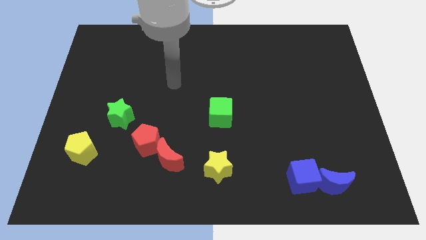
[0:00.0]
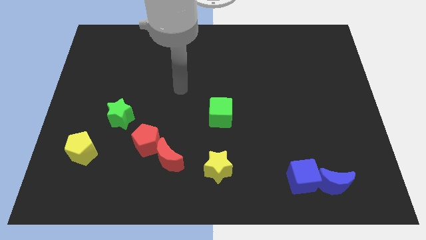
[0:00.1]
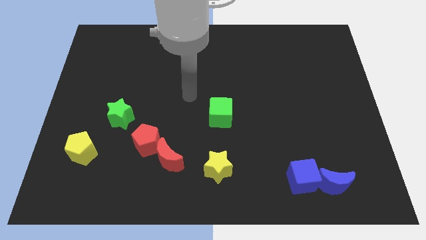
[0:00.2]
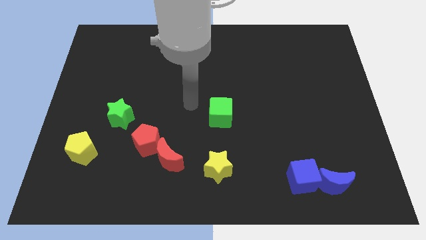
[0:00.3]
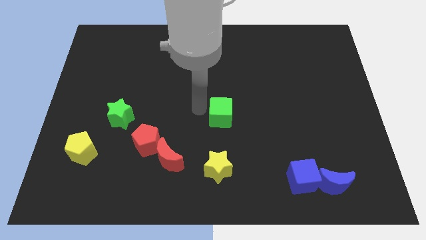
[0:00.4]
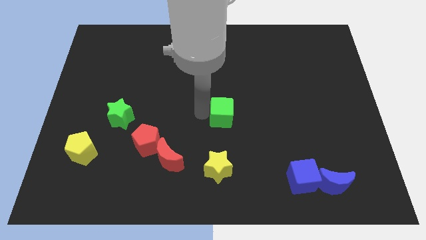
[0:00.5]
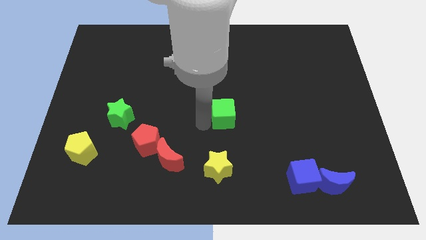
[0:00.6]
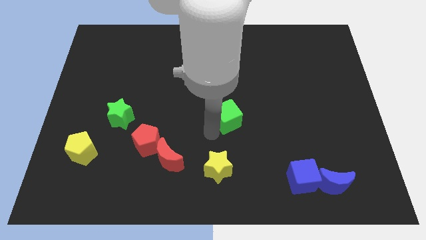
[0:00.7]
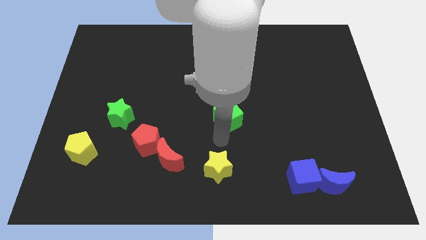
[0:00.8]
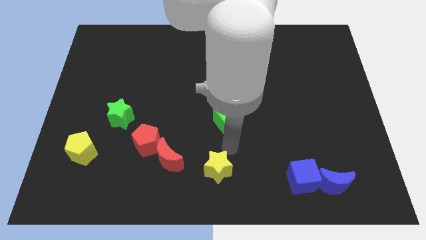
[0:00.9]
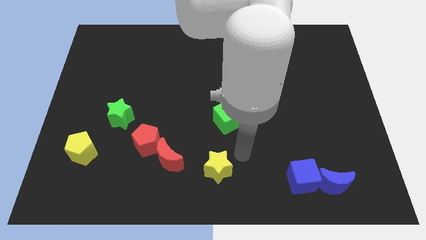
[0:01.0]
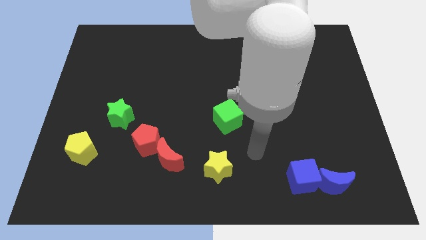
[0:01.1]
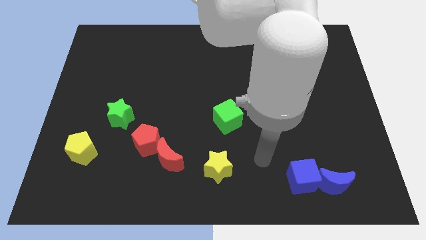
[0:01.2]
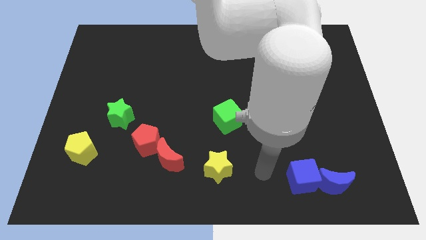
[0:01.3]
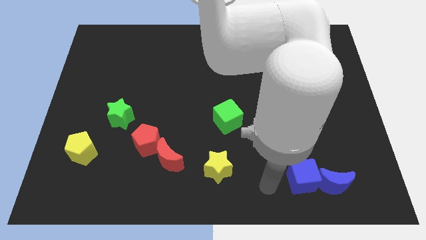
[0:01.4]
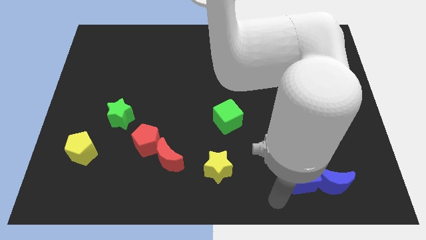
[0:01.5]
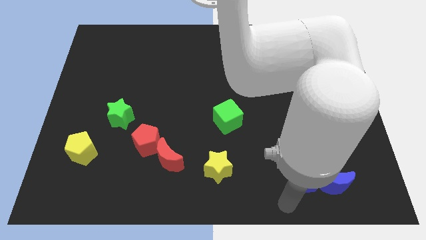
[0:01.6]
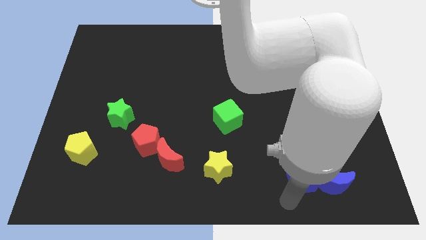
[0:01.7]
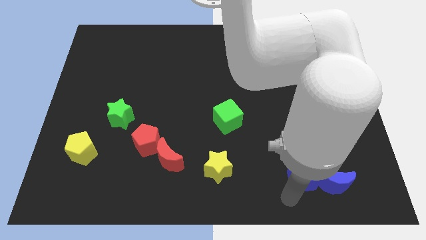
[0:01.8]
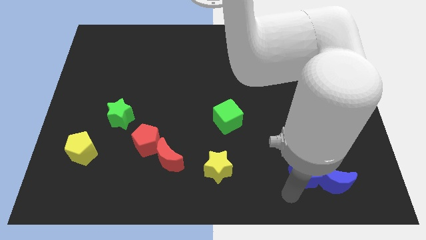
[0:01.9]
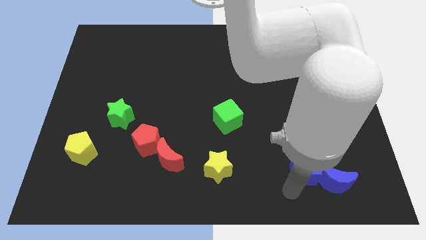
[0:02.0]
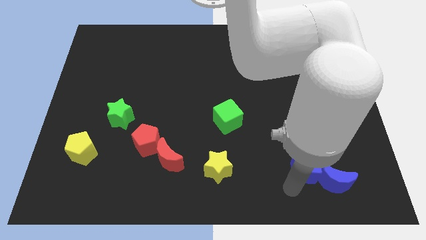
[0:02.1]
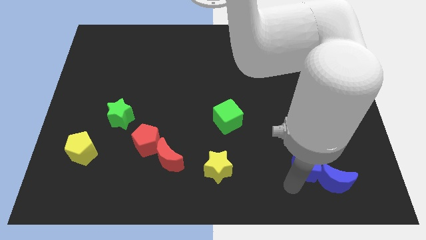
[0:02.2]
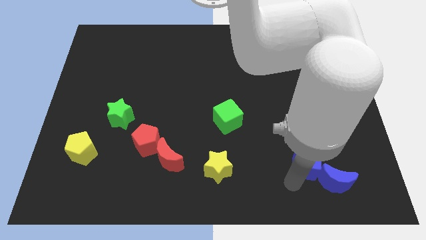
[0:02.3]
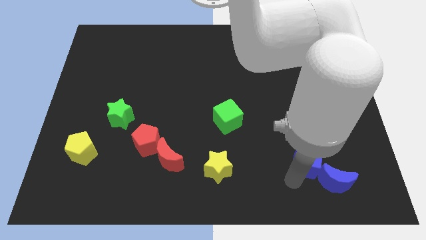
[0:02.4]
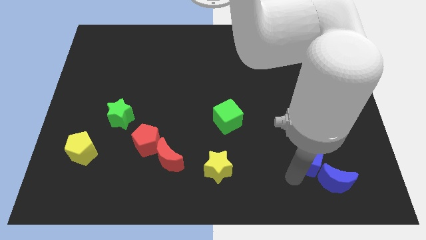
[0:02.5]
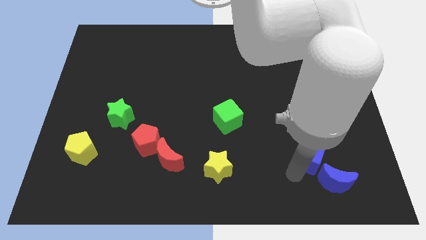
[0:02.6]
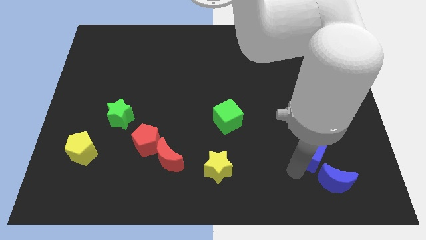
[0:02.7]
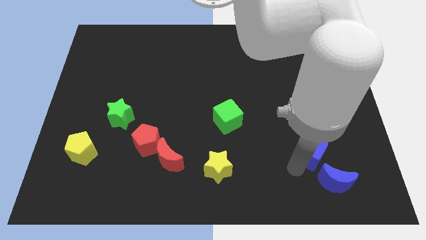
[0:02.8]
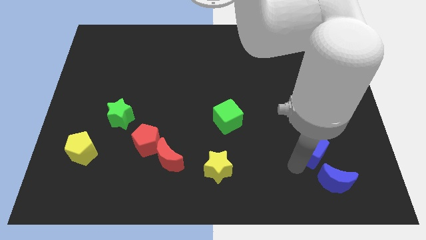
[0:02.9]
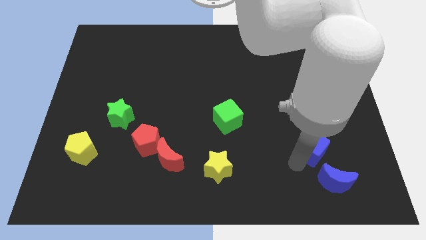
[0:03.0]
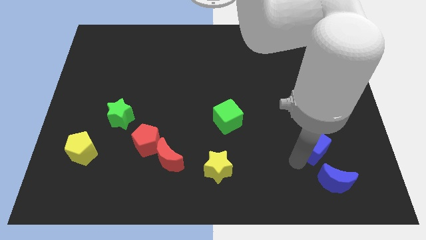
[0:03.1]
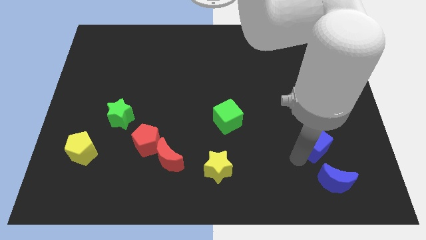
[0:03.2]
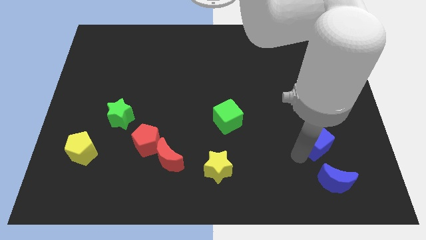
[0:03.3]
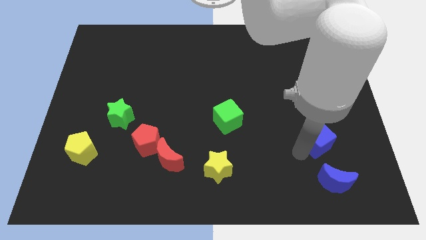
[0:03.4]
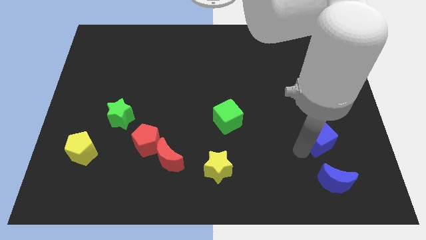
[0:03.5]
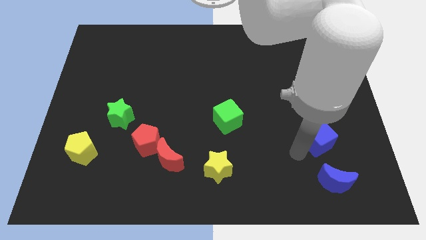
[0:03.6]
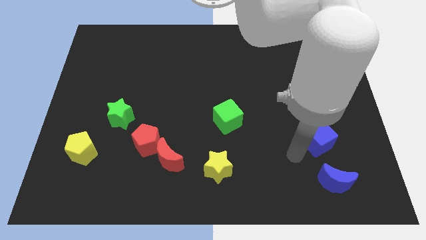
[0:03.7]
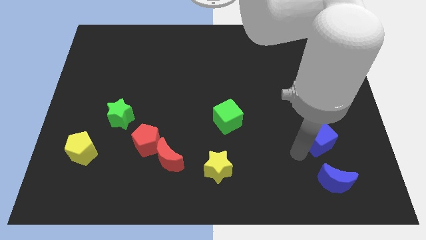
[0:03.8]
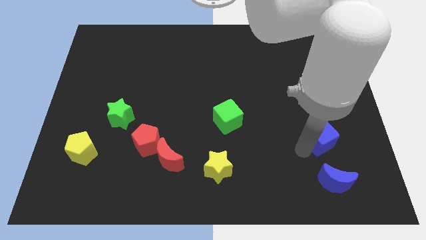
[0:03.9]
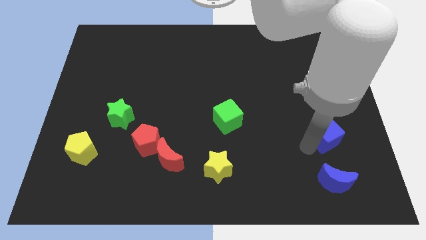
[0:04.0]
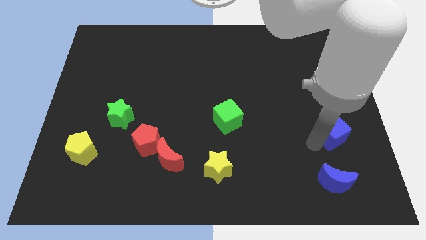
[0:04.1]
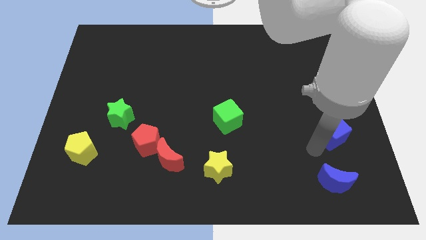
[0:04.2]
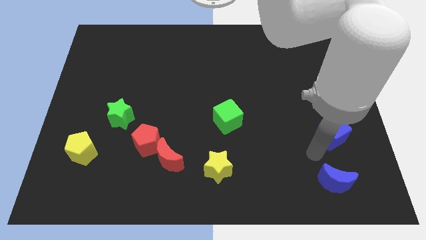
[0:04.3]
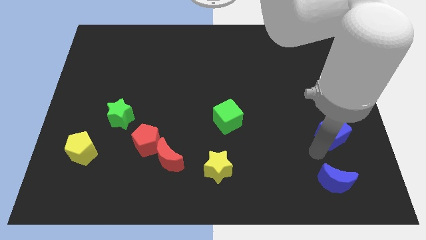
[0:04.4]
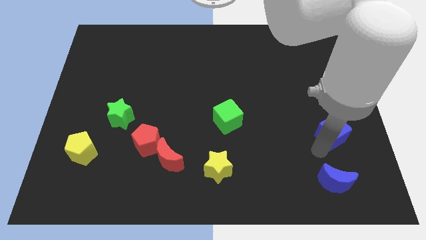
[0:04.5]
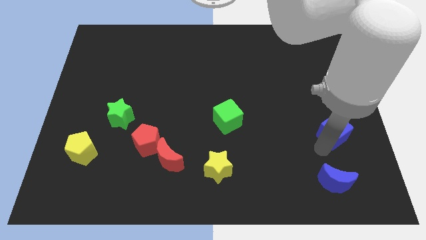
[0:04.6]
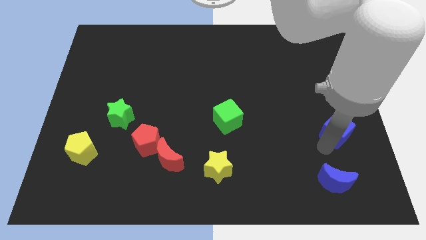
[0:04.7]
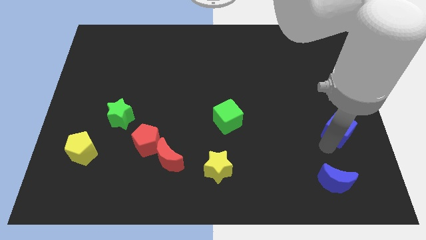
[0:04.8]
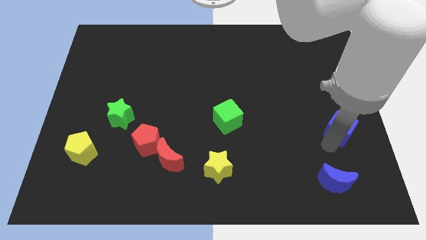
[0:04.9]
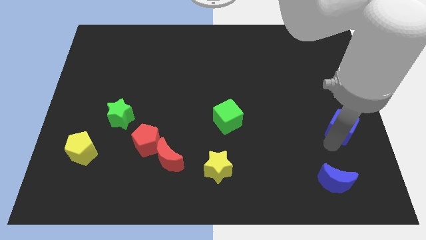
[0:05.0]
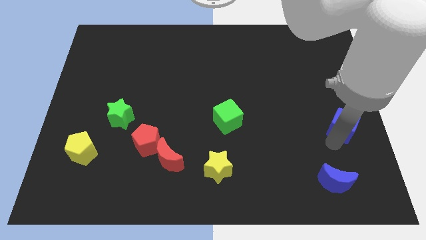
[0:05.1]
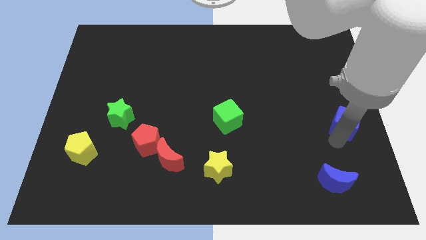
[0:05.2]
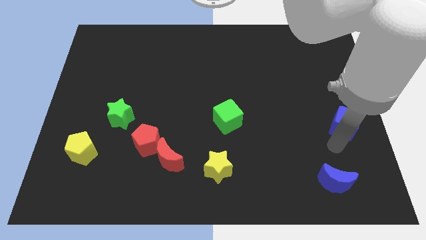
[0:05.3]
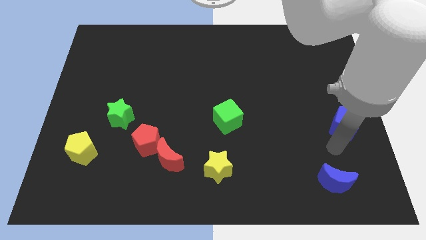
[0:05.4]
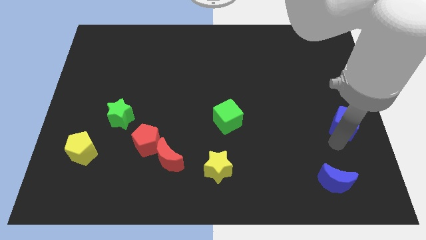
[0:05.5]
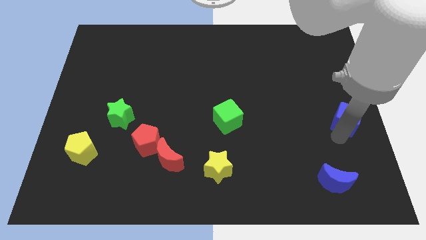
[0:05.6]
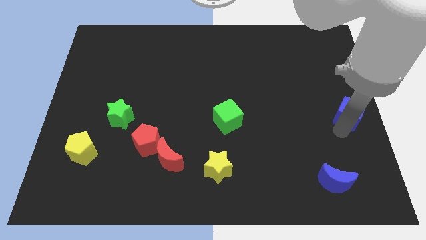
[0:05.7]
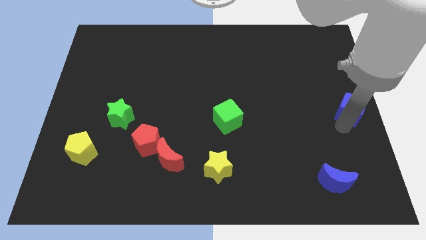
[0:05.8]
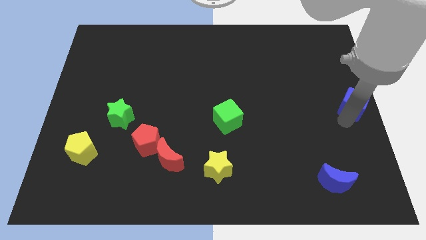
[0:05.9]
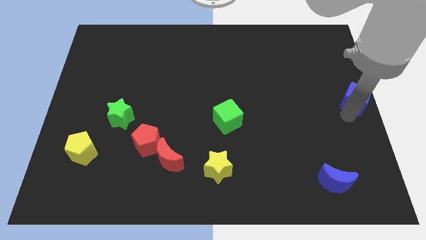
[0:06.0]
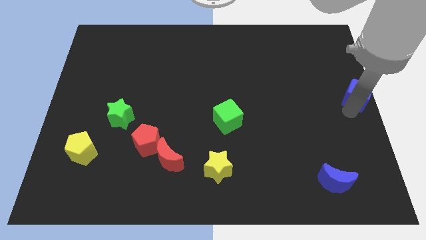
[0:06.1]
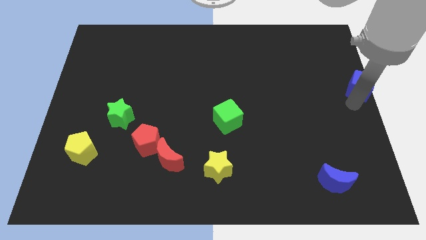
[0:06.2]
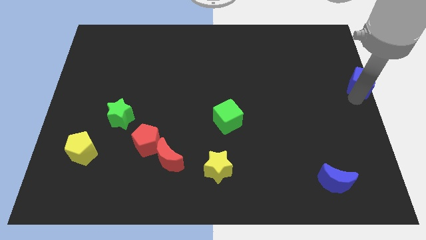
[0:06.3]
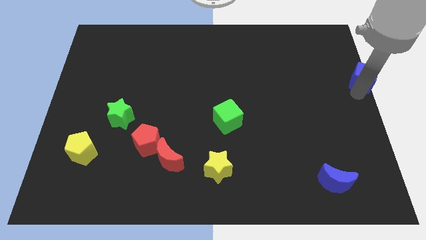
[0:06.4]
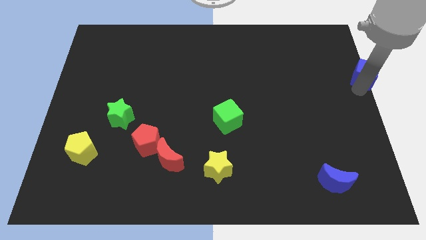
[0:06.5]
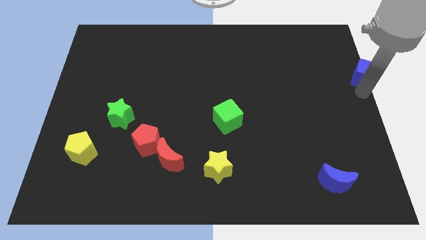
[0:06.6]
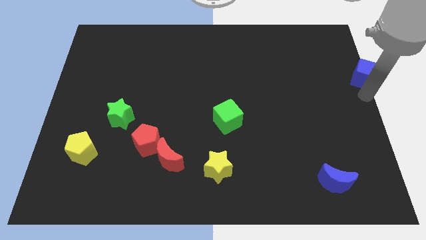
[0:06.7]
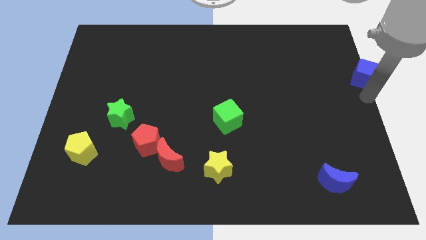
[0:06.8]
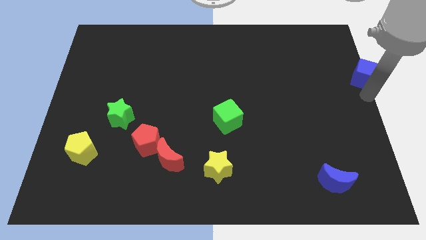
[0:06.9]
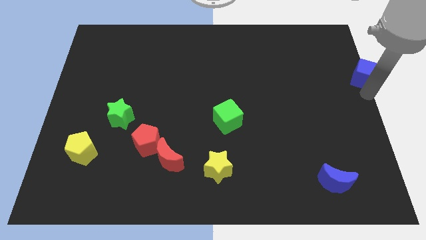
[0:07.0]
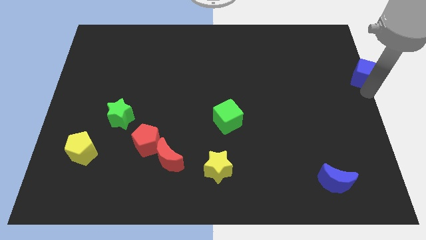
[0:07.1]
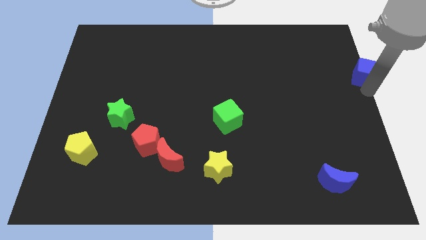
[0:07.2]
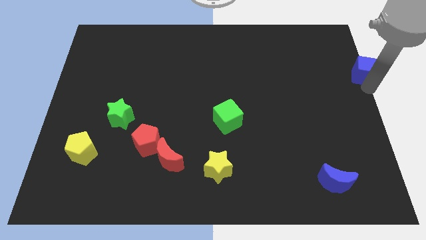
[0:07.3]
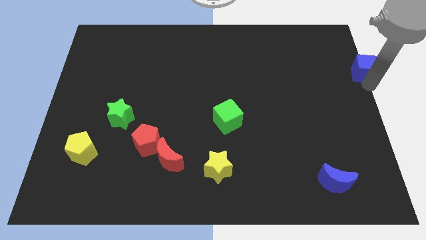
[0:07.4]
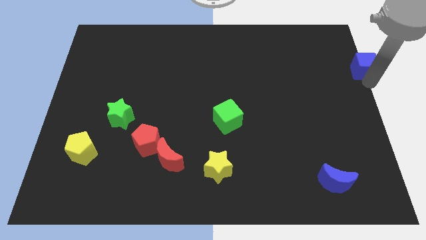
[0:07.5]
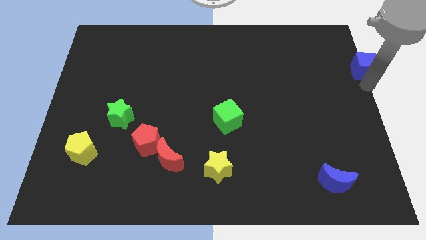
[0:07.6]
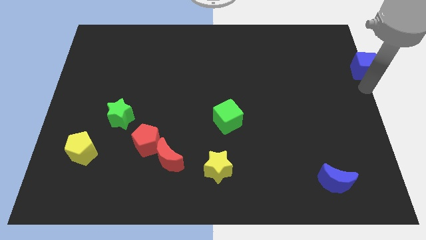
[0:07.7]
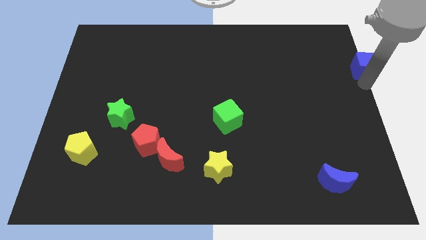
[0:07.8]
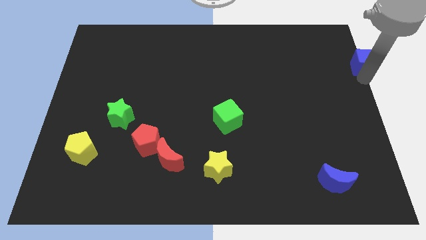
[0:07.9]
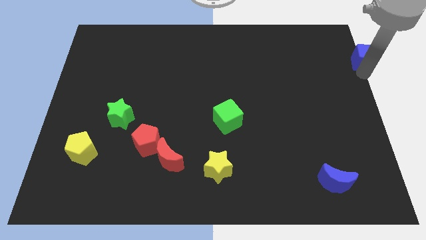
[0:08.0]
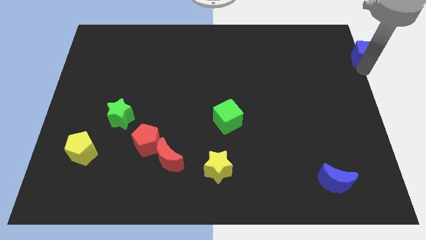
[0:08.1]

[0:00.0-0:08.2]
move the blue cube to the top right of the board
